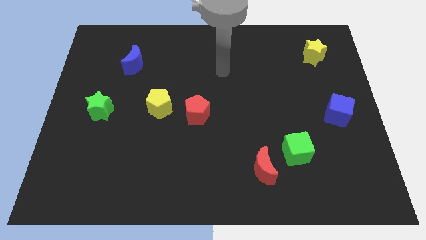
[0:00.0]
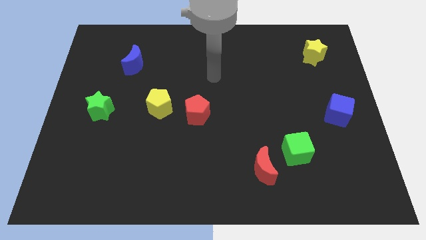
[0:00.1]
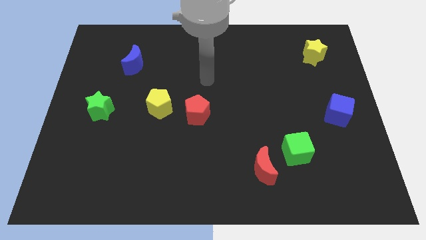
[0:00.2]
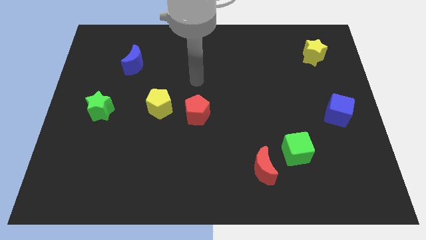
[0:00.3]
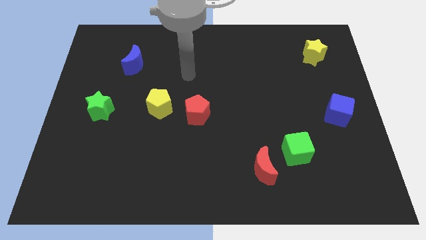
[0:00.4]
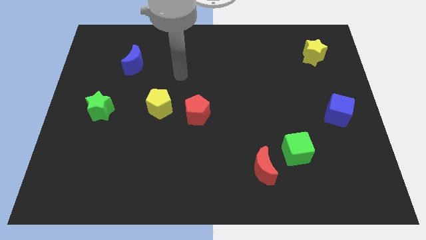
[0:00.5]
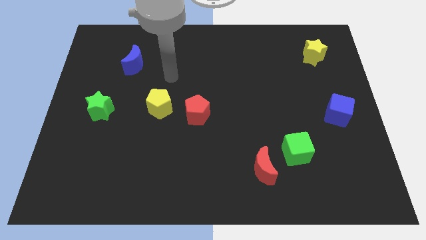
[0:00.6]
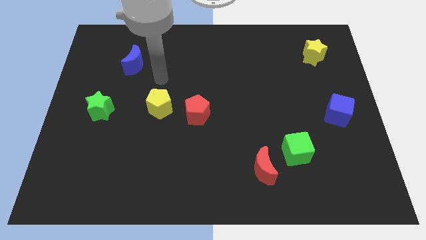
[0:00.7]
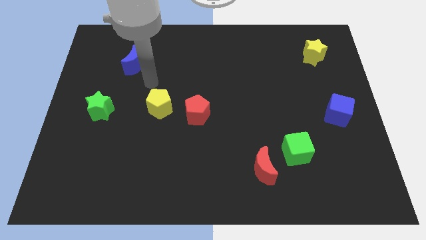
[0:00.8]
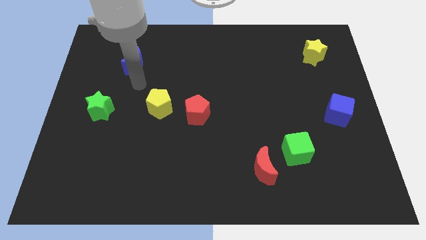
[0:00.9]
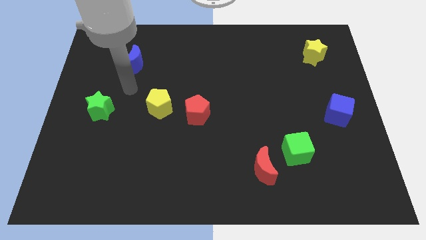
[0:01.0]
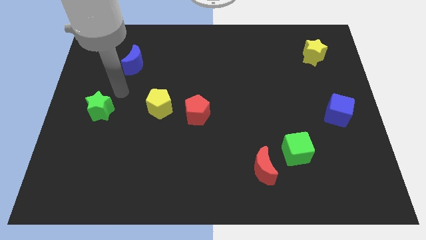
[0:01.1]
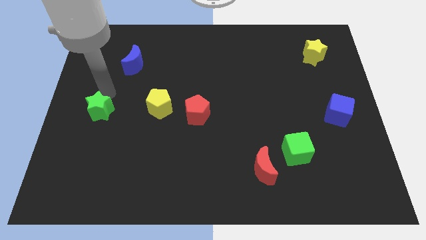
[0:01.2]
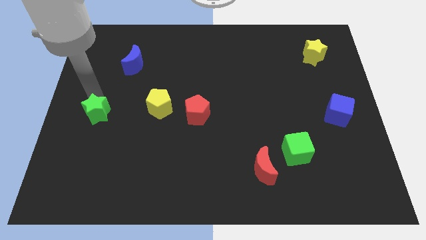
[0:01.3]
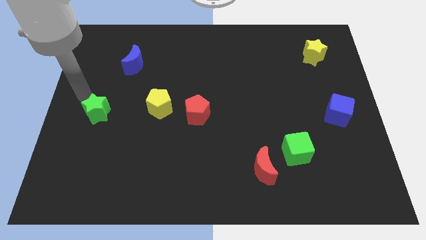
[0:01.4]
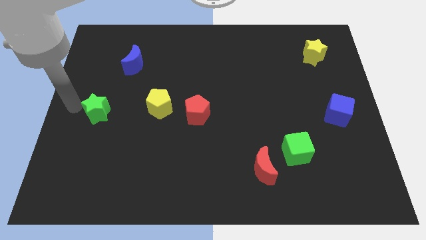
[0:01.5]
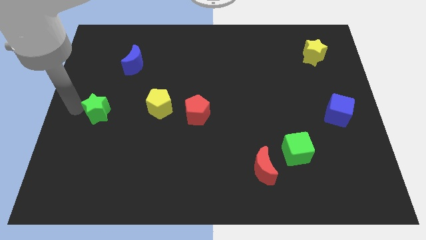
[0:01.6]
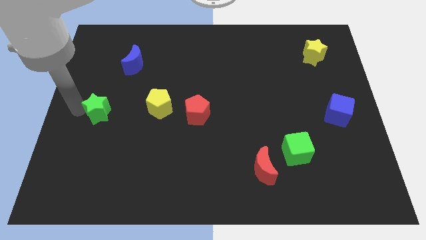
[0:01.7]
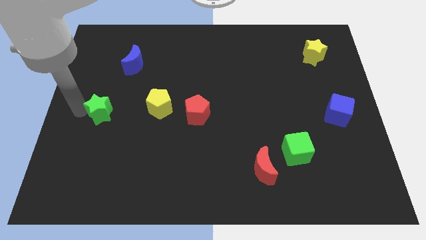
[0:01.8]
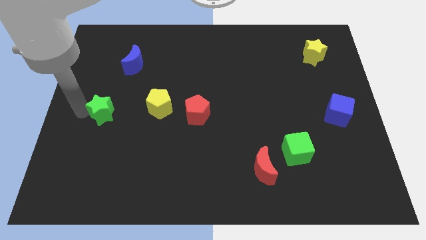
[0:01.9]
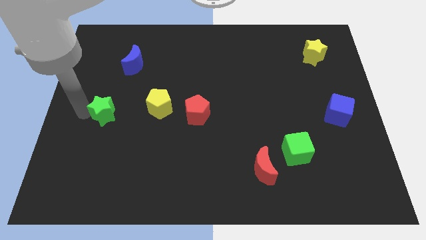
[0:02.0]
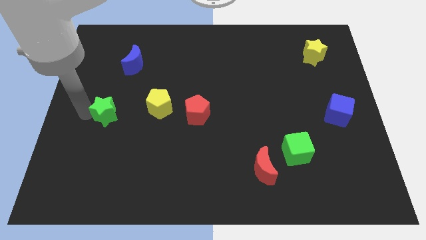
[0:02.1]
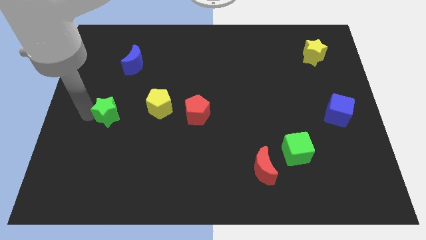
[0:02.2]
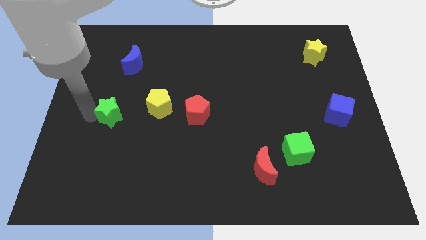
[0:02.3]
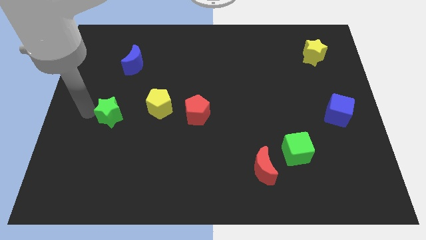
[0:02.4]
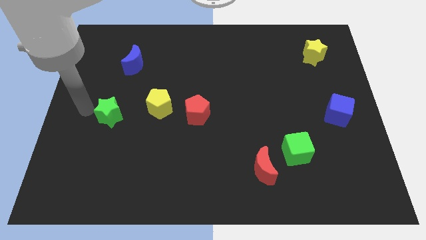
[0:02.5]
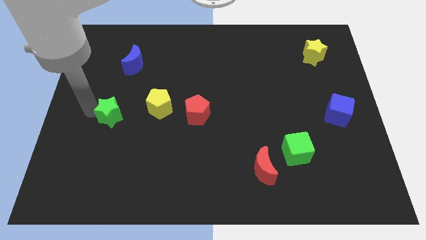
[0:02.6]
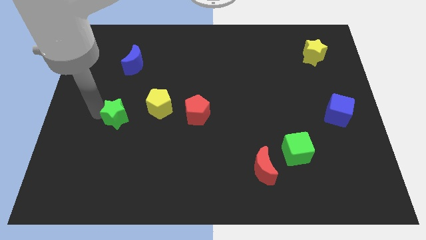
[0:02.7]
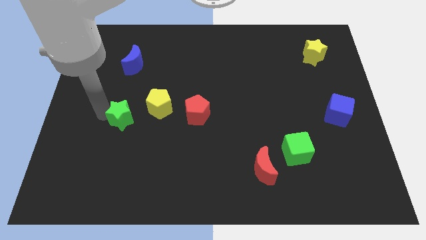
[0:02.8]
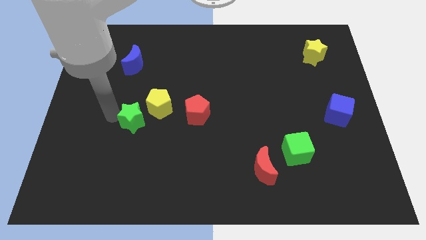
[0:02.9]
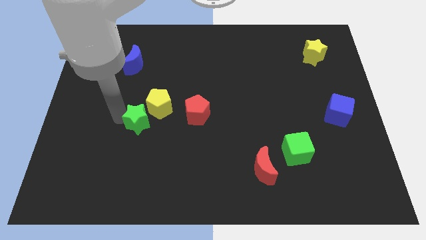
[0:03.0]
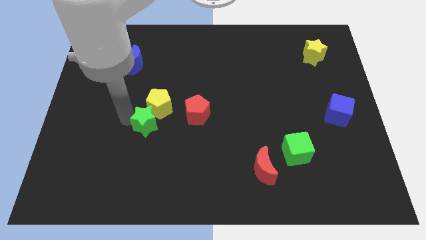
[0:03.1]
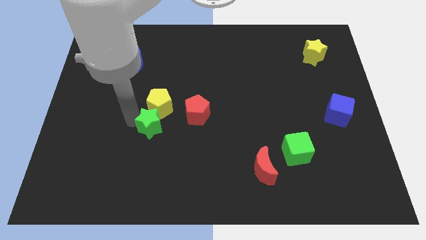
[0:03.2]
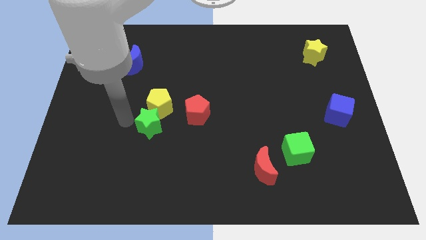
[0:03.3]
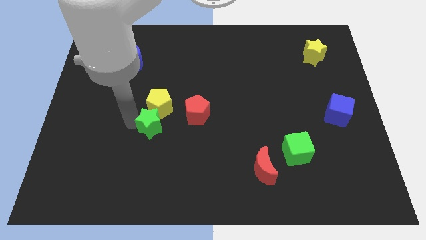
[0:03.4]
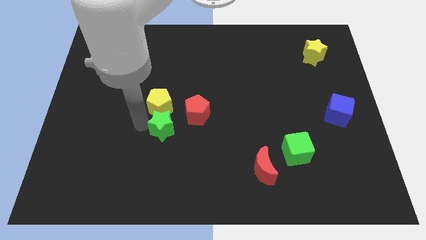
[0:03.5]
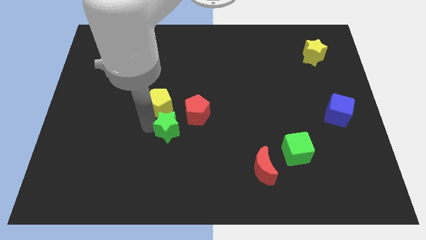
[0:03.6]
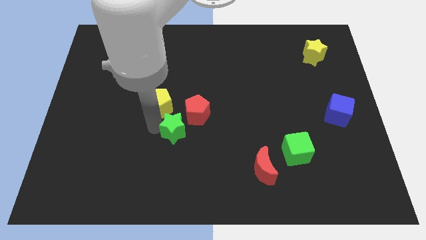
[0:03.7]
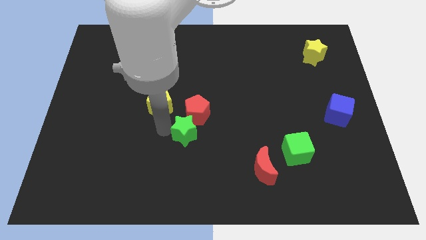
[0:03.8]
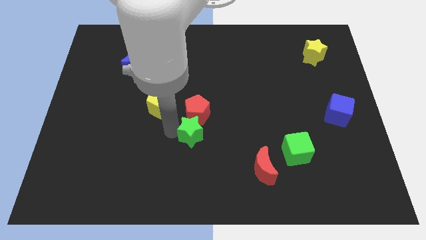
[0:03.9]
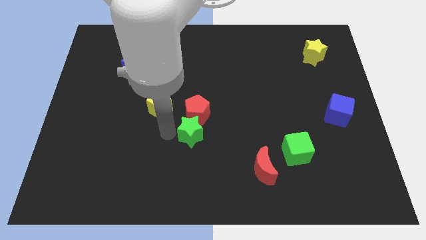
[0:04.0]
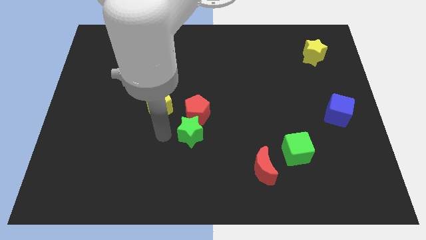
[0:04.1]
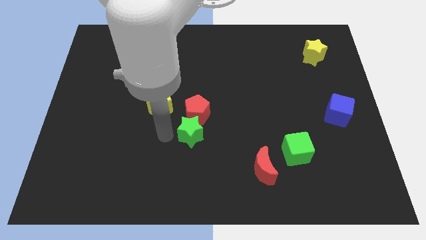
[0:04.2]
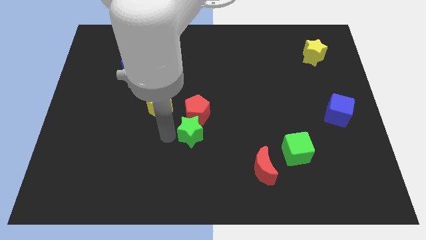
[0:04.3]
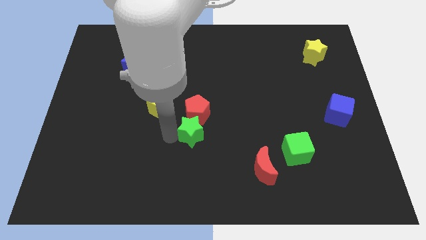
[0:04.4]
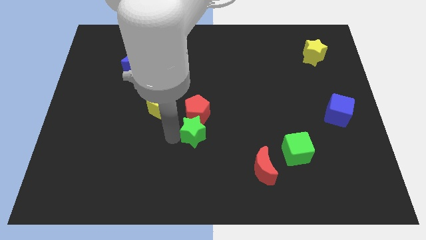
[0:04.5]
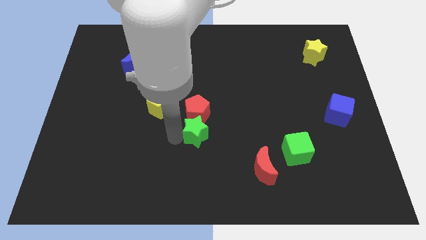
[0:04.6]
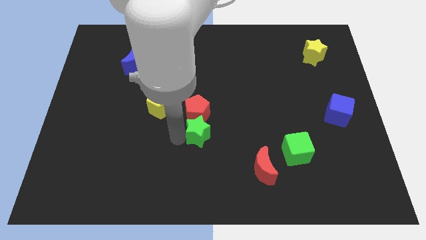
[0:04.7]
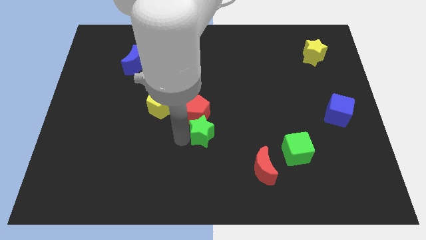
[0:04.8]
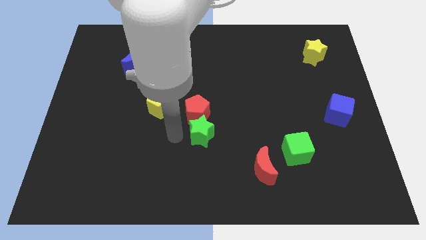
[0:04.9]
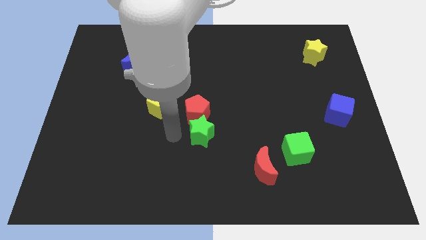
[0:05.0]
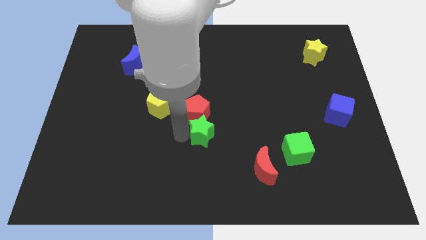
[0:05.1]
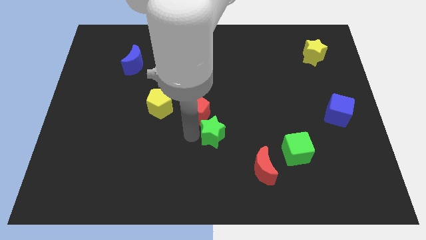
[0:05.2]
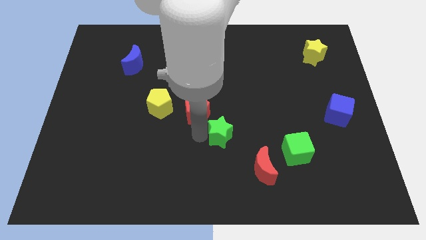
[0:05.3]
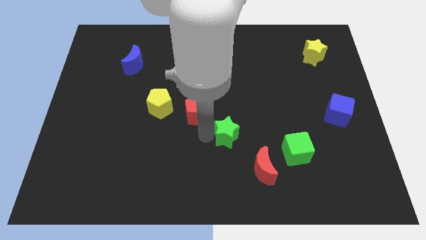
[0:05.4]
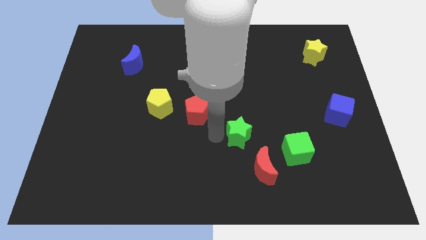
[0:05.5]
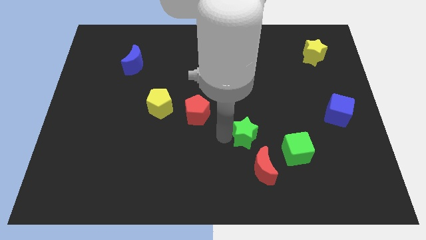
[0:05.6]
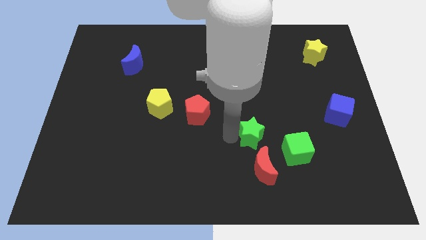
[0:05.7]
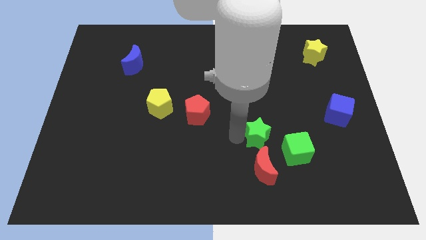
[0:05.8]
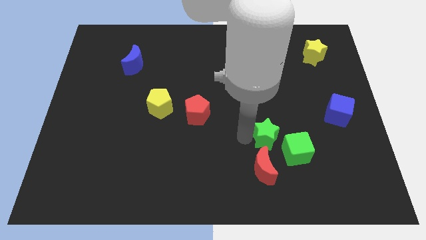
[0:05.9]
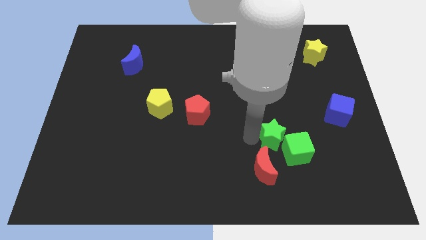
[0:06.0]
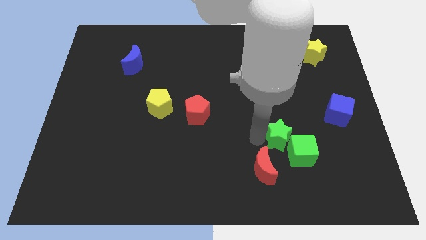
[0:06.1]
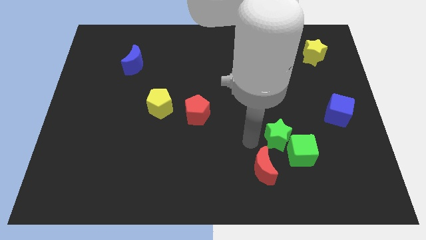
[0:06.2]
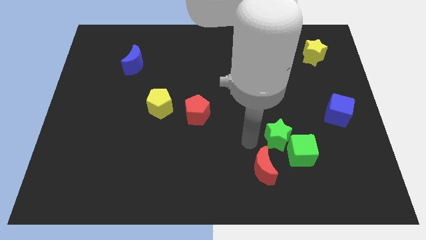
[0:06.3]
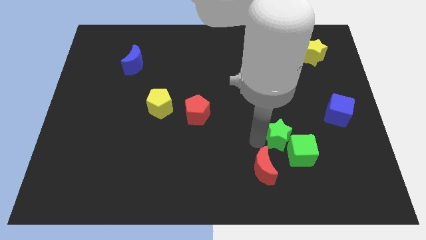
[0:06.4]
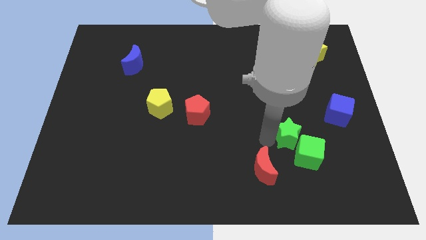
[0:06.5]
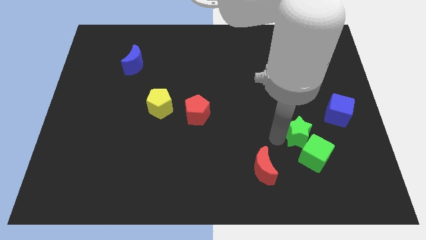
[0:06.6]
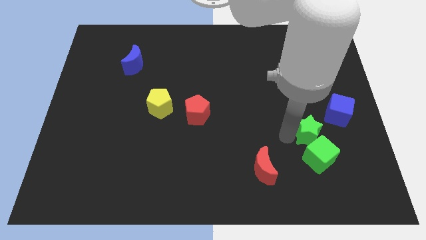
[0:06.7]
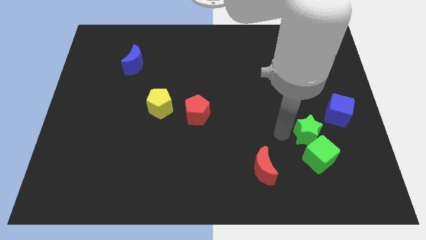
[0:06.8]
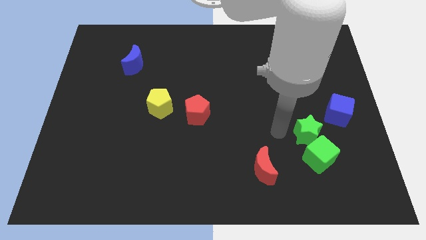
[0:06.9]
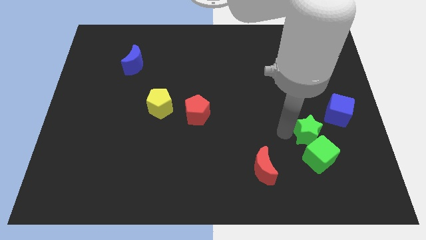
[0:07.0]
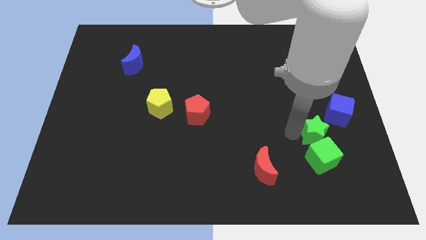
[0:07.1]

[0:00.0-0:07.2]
push the green star diagonally up and to the right of the green cube
